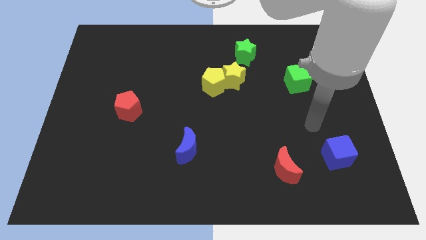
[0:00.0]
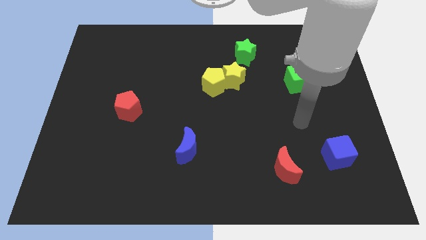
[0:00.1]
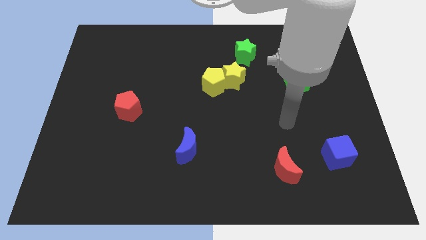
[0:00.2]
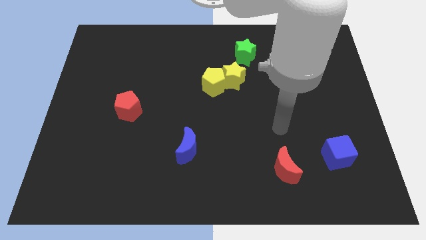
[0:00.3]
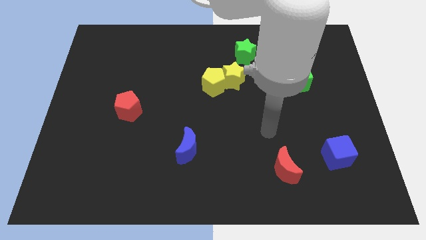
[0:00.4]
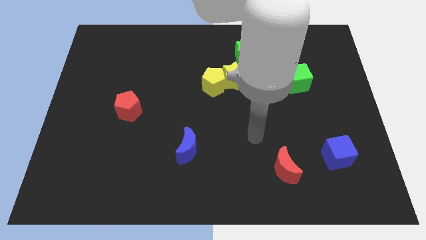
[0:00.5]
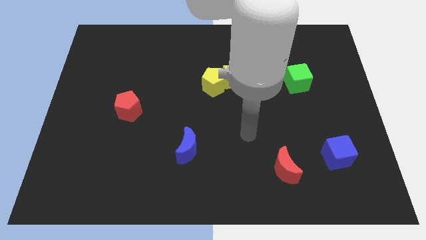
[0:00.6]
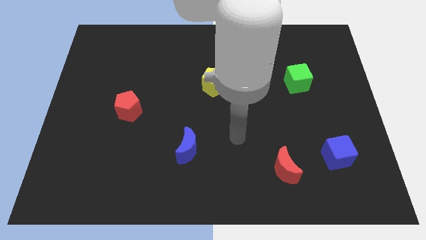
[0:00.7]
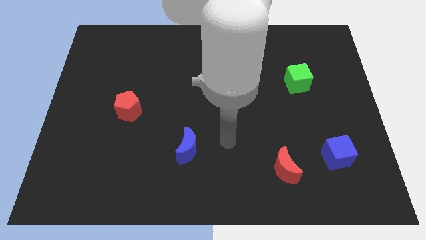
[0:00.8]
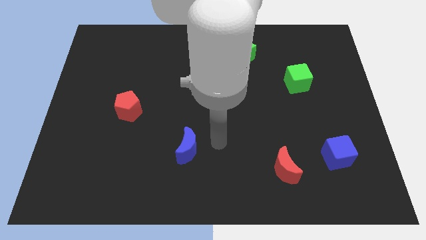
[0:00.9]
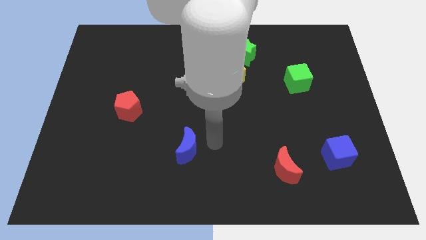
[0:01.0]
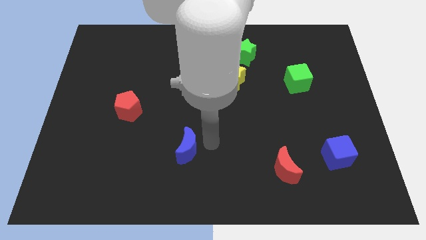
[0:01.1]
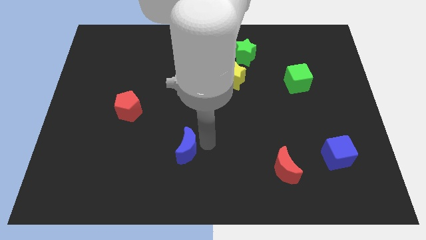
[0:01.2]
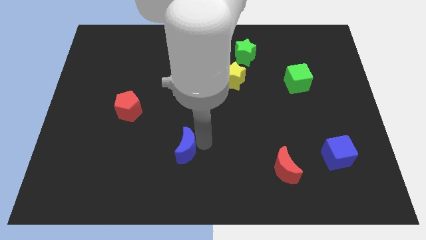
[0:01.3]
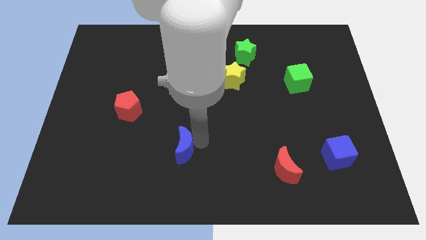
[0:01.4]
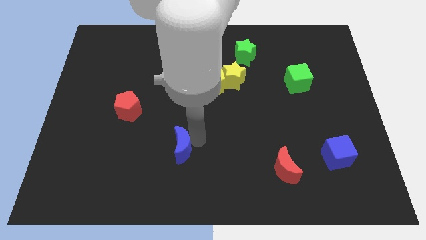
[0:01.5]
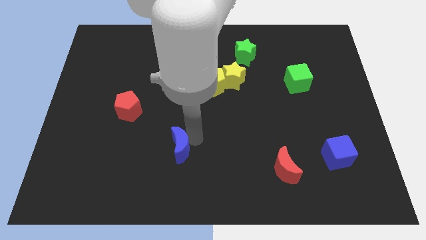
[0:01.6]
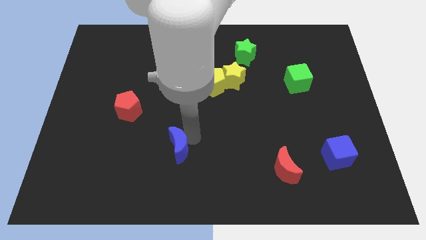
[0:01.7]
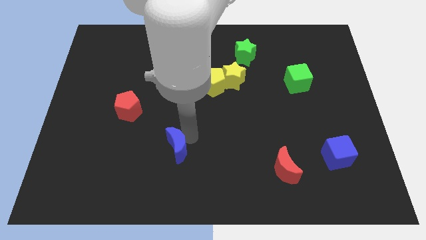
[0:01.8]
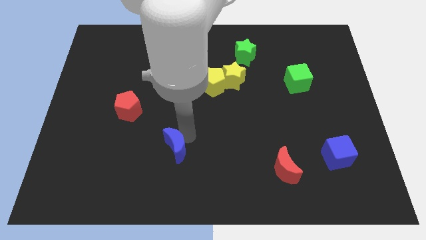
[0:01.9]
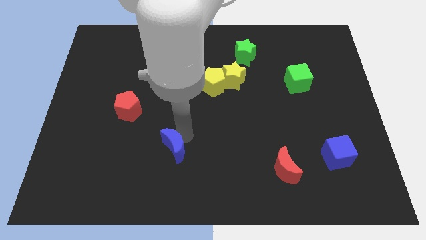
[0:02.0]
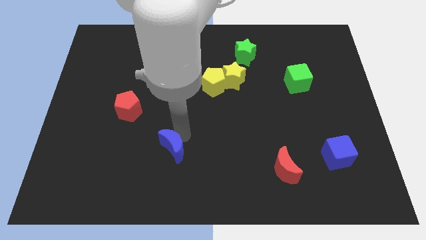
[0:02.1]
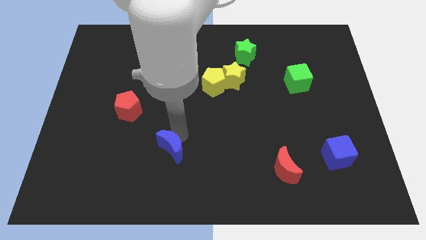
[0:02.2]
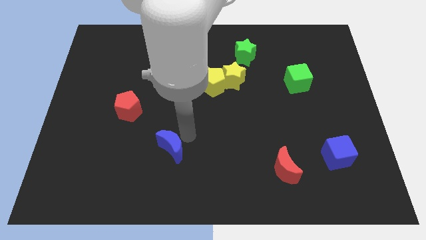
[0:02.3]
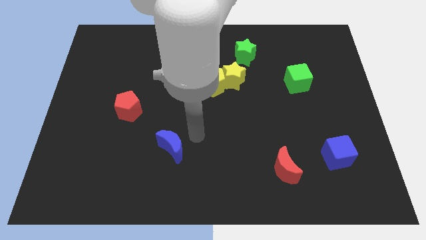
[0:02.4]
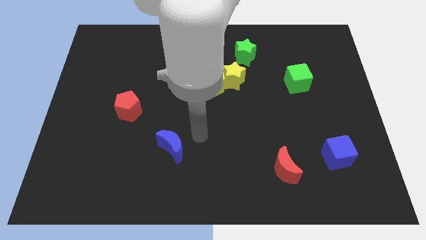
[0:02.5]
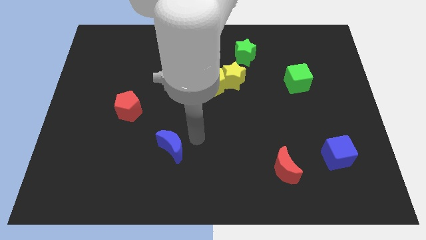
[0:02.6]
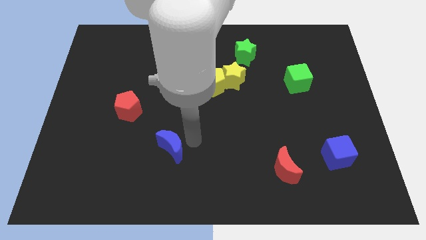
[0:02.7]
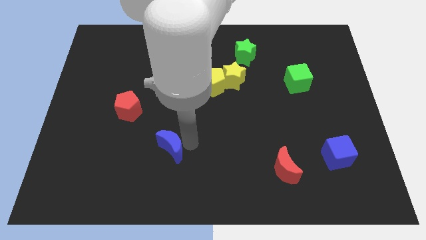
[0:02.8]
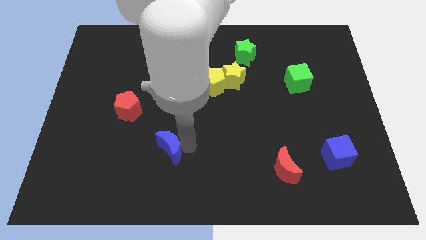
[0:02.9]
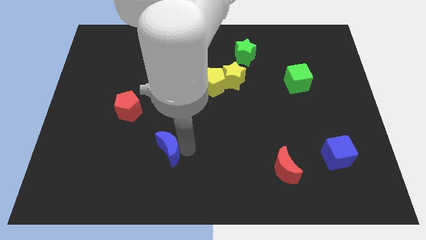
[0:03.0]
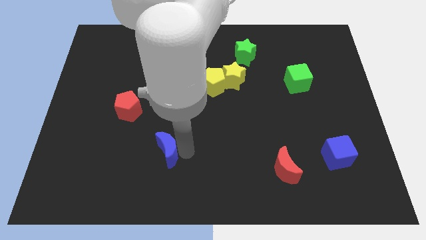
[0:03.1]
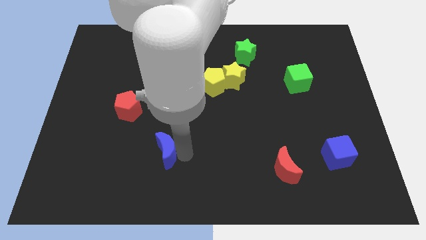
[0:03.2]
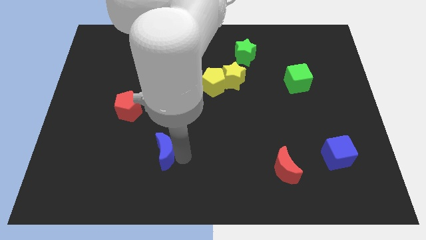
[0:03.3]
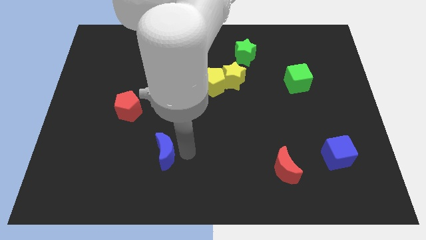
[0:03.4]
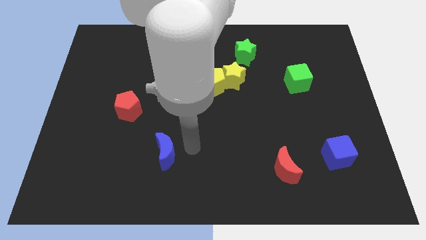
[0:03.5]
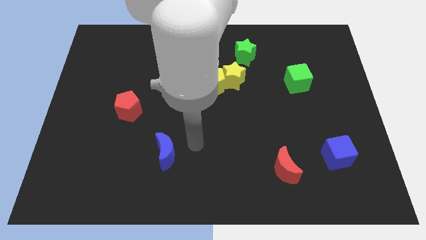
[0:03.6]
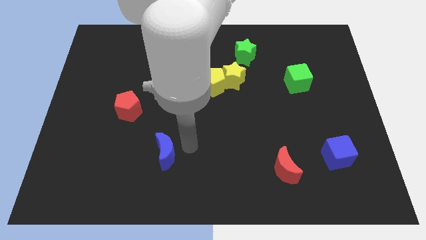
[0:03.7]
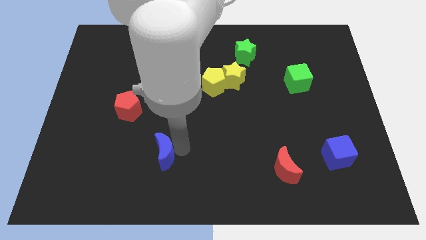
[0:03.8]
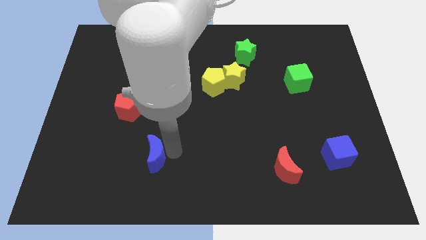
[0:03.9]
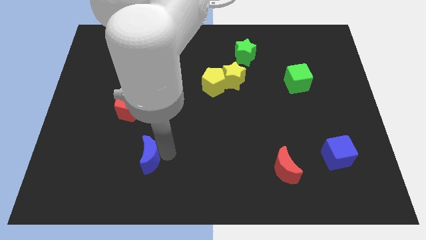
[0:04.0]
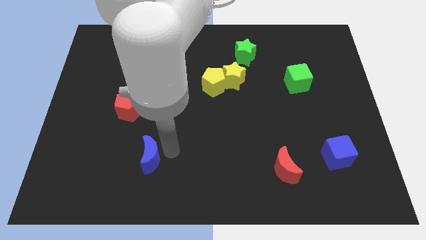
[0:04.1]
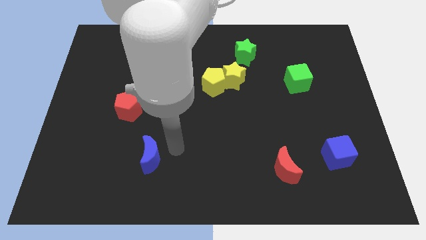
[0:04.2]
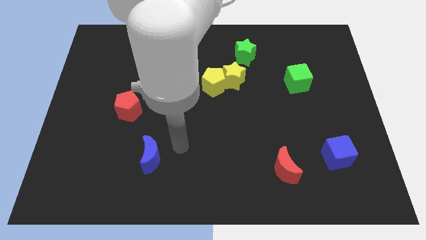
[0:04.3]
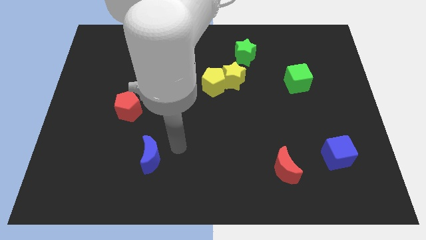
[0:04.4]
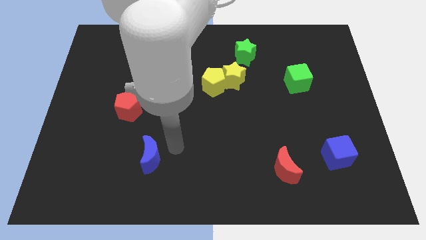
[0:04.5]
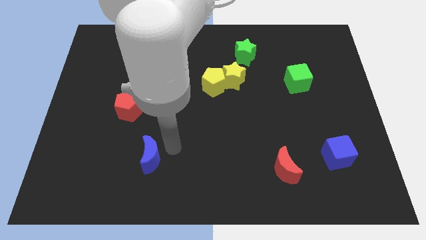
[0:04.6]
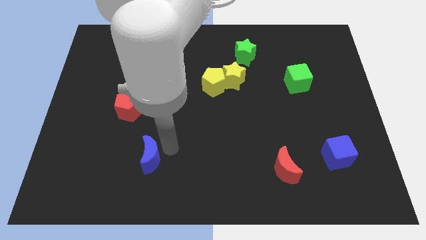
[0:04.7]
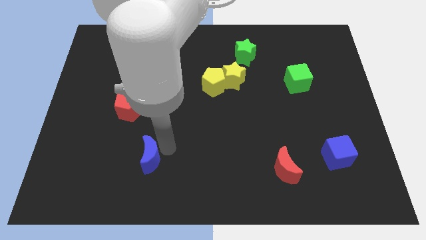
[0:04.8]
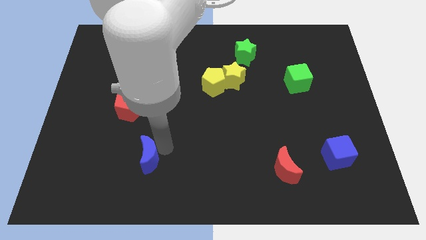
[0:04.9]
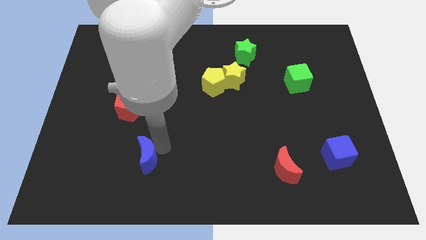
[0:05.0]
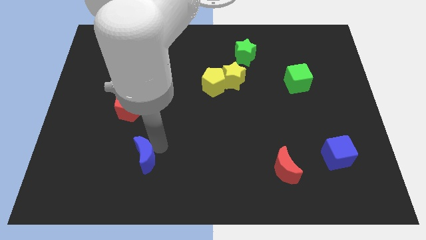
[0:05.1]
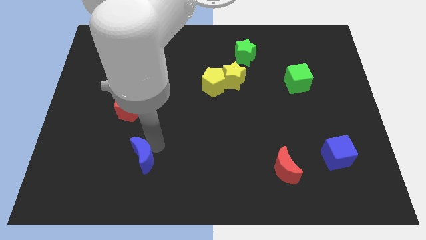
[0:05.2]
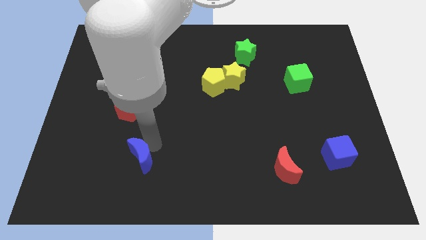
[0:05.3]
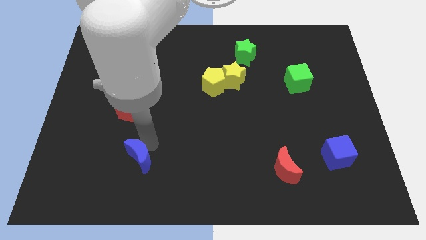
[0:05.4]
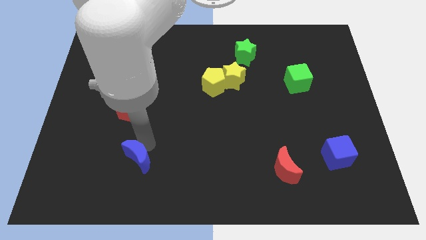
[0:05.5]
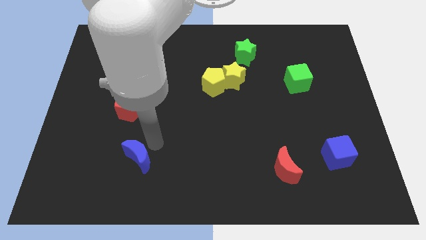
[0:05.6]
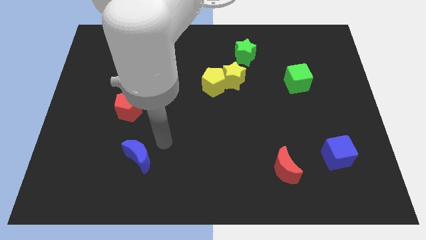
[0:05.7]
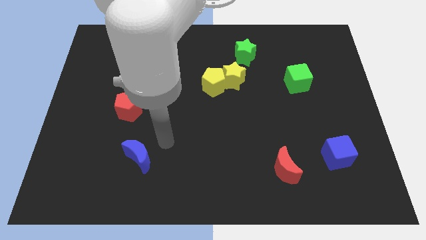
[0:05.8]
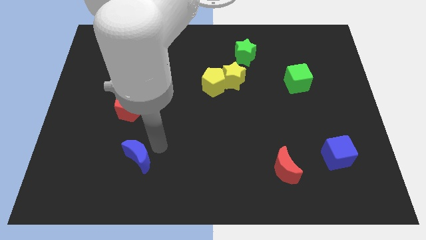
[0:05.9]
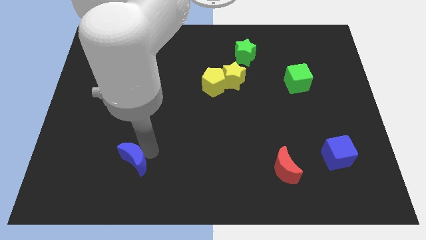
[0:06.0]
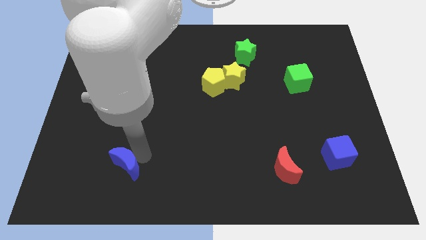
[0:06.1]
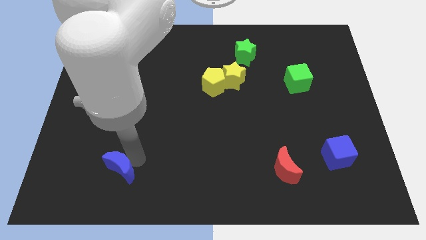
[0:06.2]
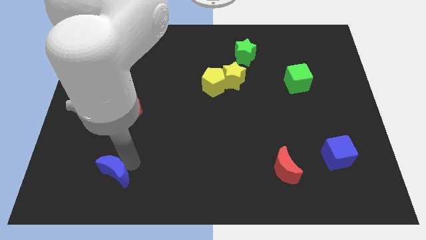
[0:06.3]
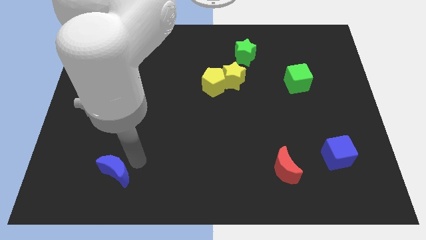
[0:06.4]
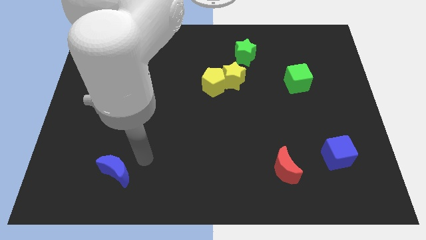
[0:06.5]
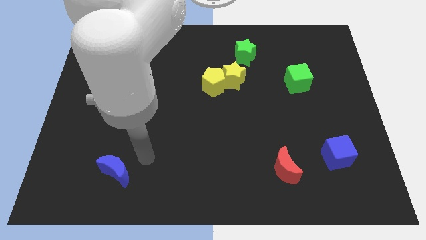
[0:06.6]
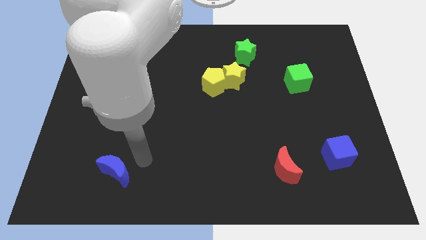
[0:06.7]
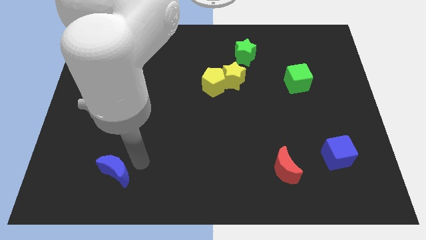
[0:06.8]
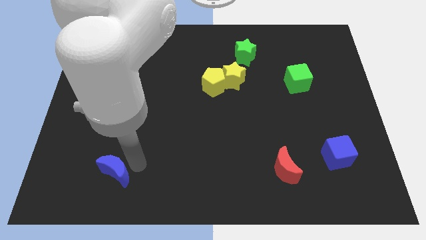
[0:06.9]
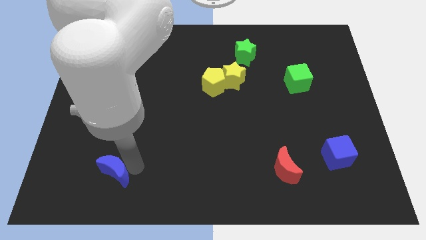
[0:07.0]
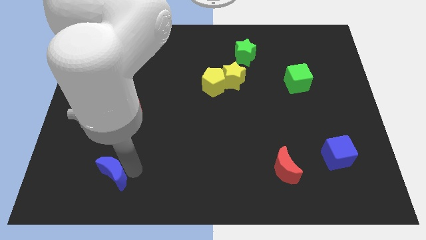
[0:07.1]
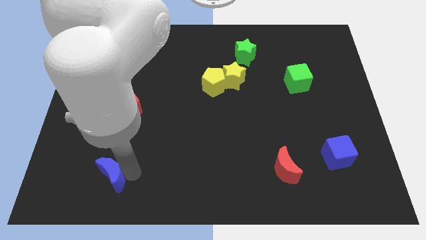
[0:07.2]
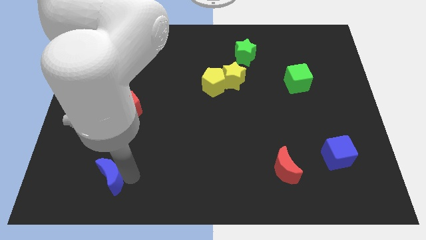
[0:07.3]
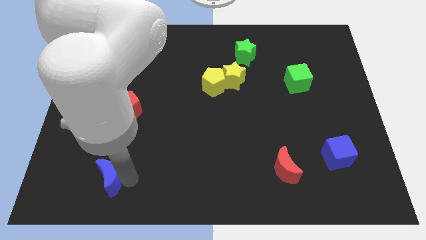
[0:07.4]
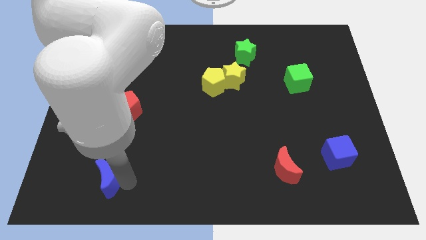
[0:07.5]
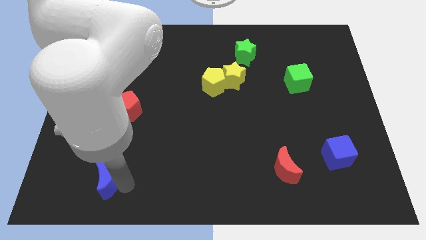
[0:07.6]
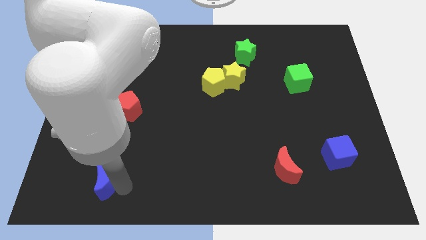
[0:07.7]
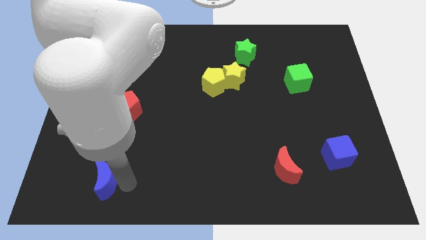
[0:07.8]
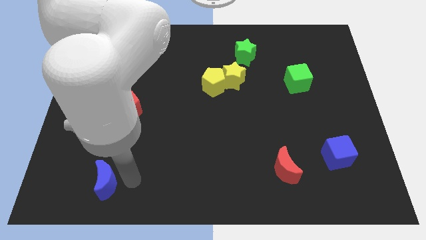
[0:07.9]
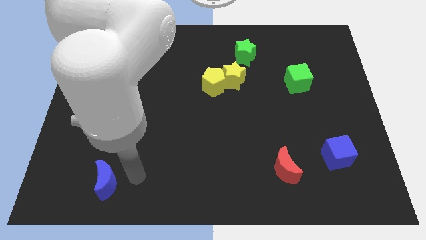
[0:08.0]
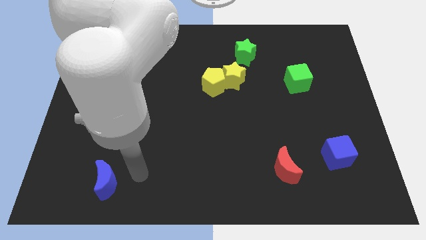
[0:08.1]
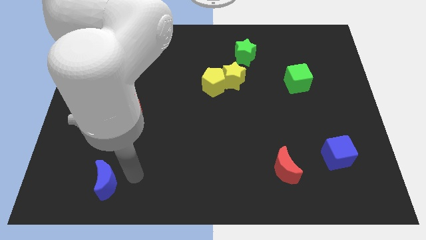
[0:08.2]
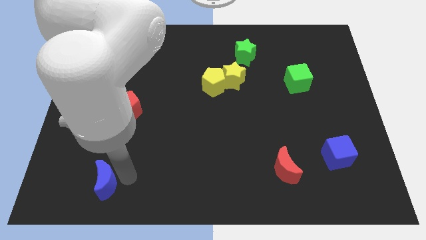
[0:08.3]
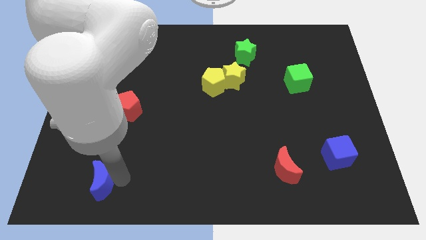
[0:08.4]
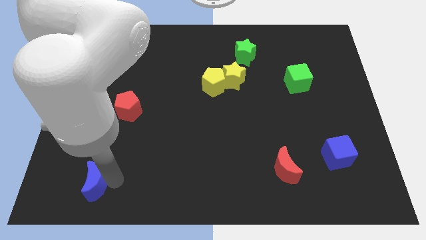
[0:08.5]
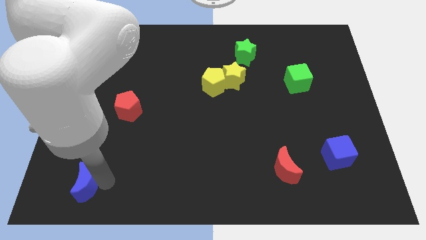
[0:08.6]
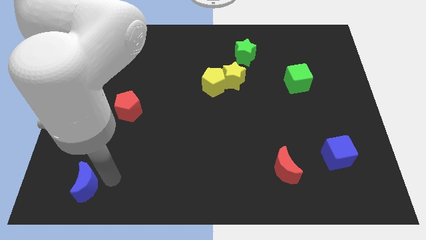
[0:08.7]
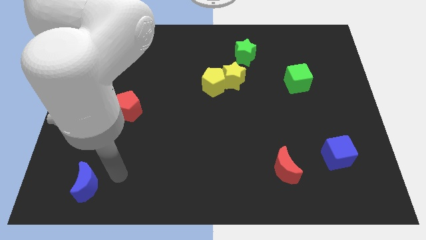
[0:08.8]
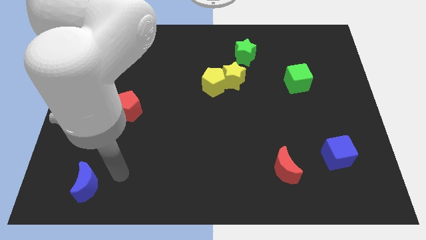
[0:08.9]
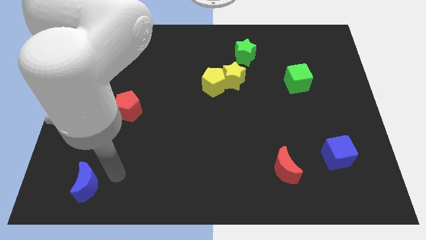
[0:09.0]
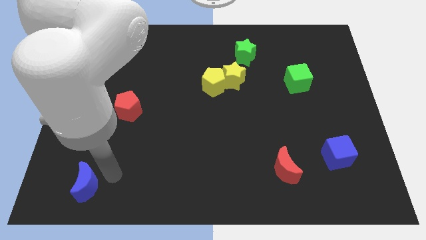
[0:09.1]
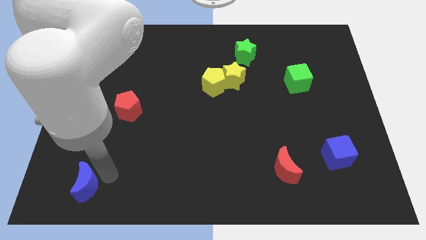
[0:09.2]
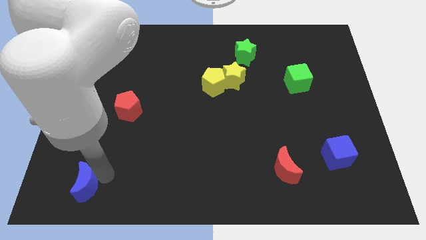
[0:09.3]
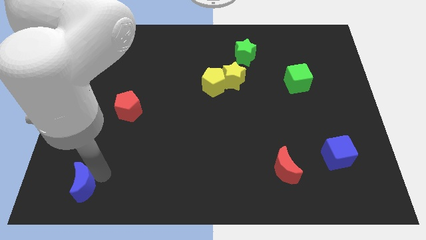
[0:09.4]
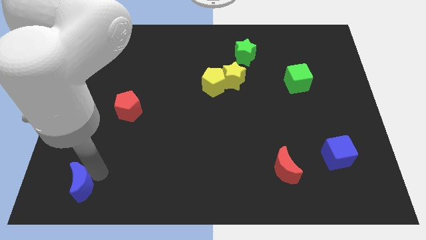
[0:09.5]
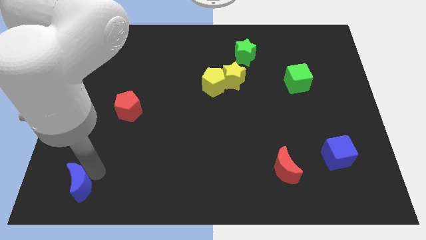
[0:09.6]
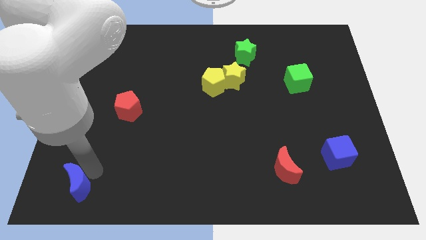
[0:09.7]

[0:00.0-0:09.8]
slide the blue moon to the bottom left corner
